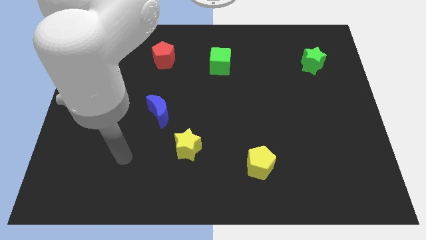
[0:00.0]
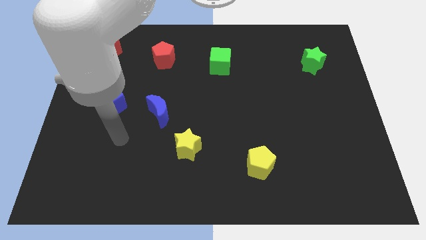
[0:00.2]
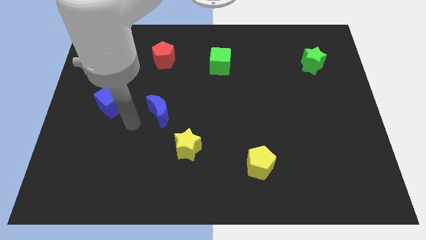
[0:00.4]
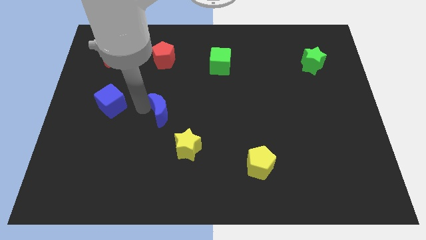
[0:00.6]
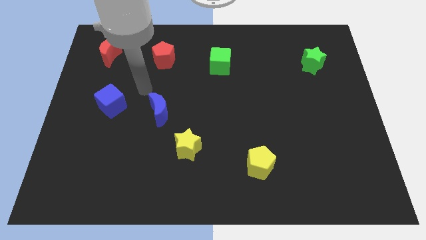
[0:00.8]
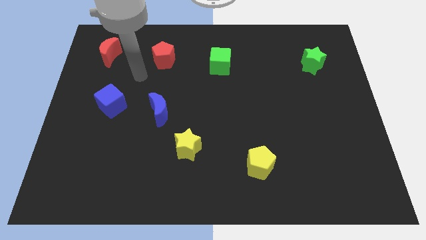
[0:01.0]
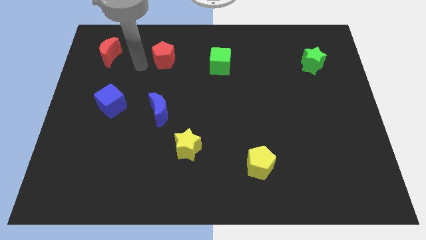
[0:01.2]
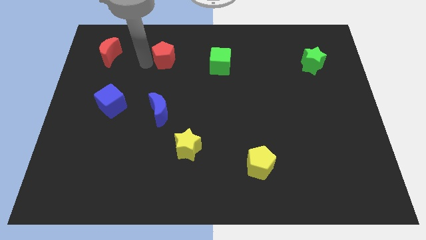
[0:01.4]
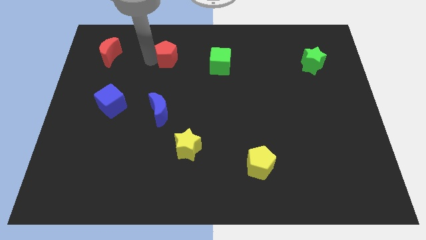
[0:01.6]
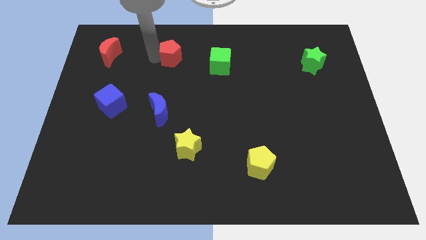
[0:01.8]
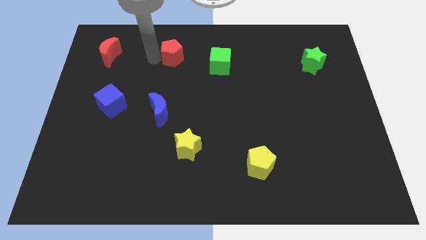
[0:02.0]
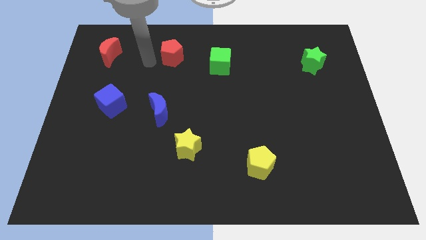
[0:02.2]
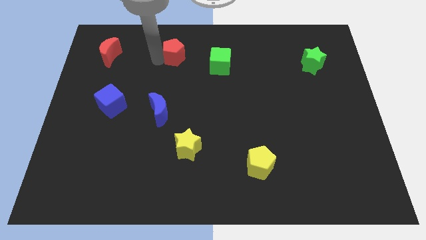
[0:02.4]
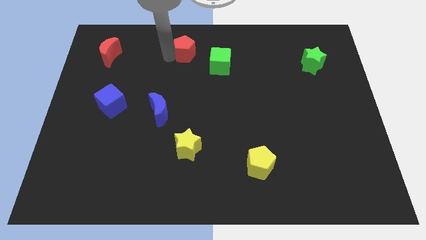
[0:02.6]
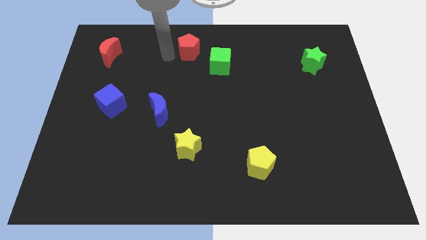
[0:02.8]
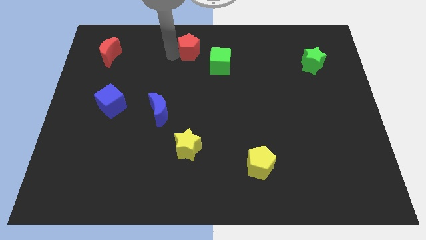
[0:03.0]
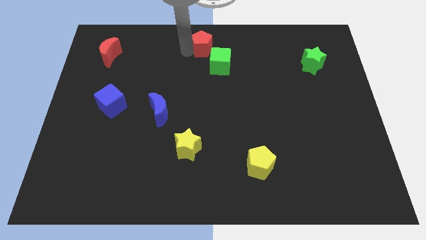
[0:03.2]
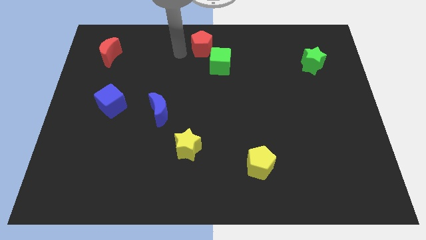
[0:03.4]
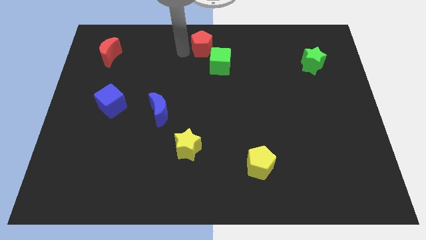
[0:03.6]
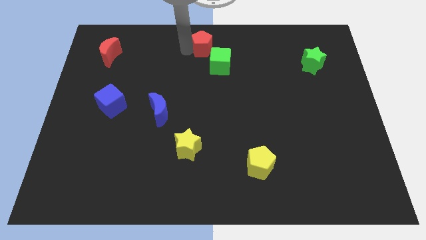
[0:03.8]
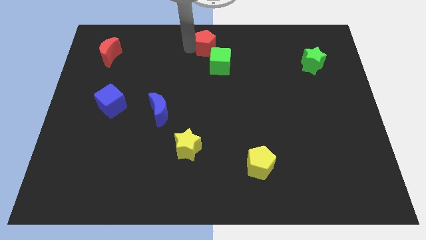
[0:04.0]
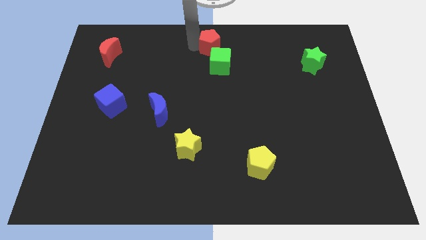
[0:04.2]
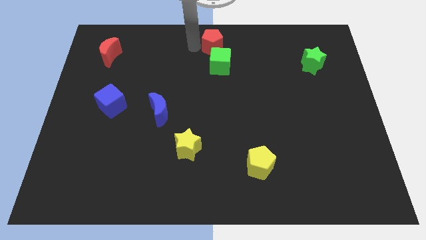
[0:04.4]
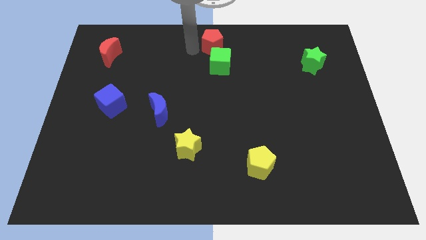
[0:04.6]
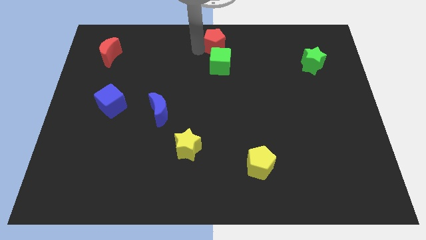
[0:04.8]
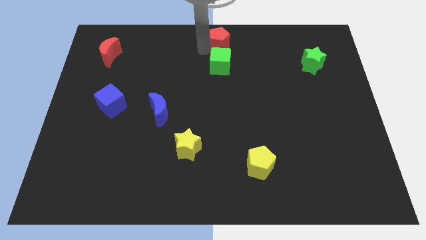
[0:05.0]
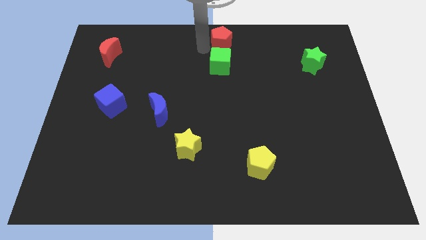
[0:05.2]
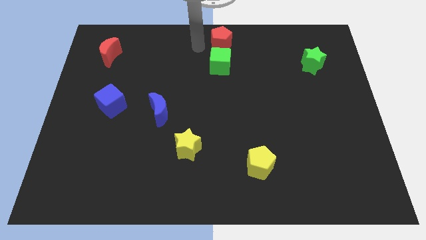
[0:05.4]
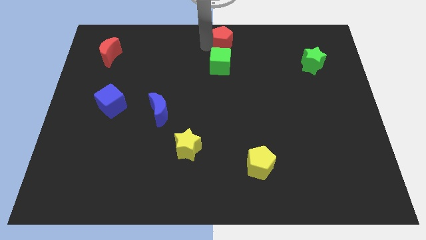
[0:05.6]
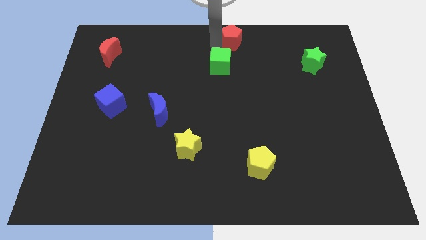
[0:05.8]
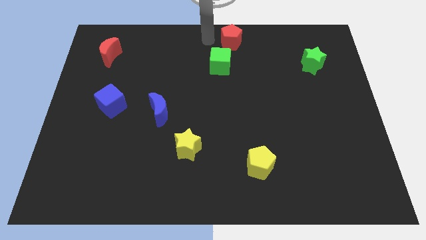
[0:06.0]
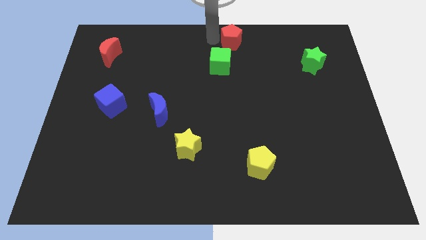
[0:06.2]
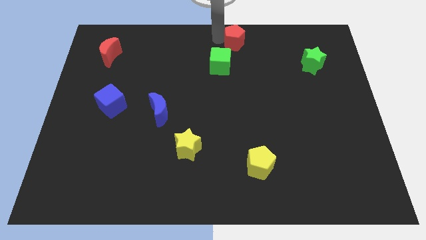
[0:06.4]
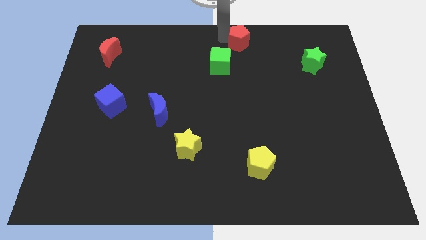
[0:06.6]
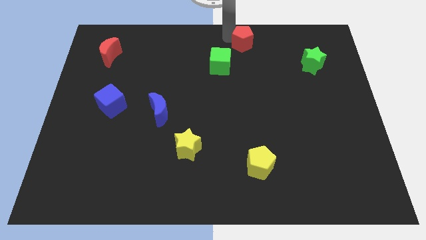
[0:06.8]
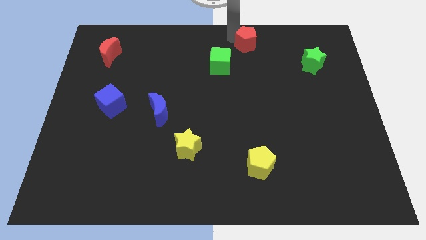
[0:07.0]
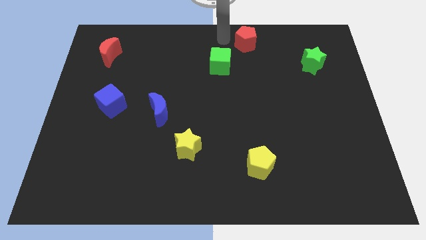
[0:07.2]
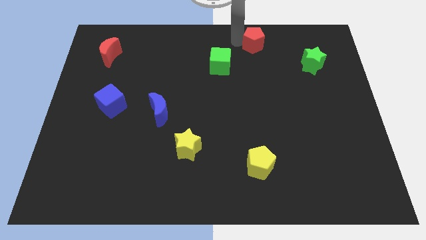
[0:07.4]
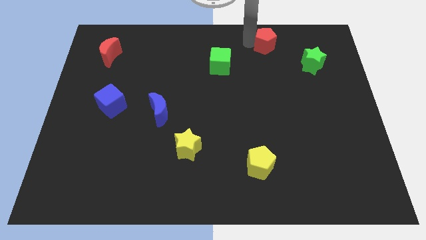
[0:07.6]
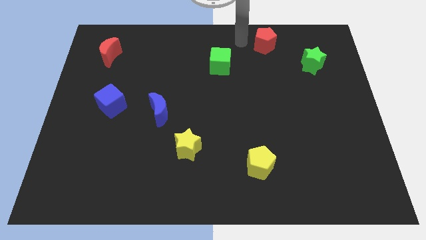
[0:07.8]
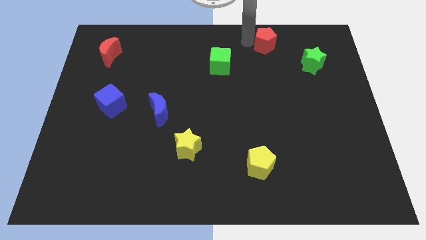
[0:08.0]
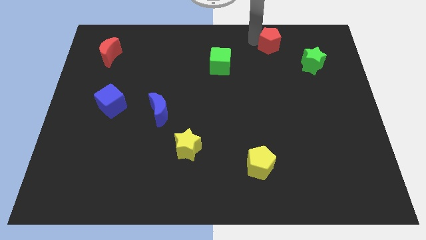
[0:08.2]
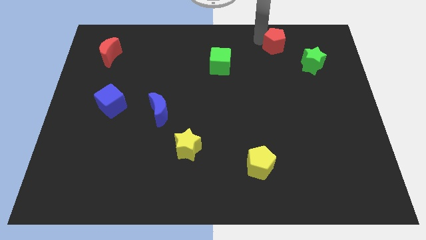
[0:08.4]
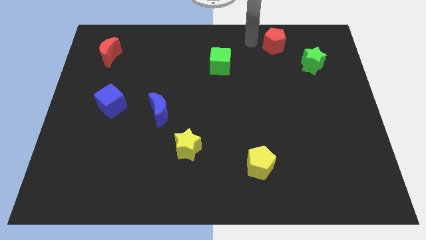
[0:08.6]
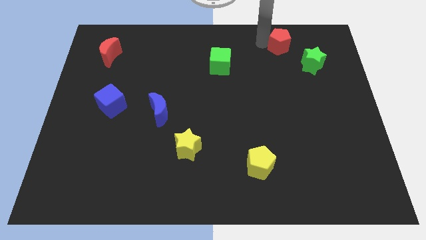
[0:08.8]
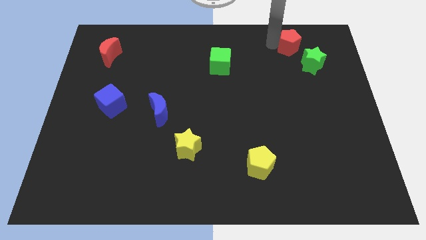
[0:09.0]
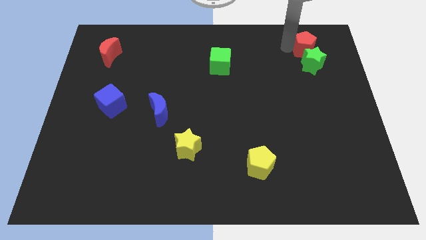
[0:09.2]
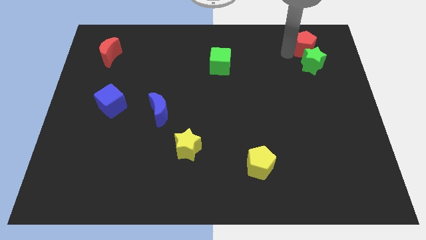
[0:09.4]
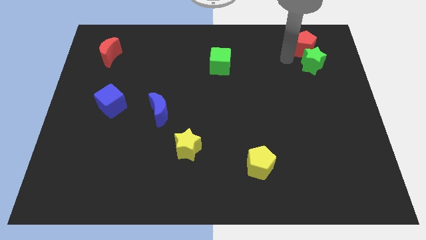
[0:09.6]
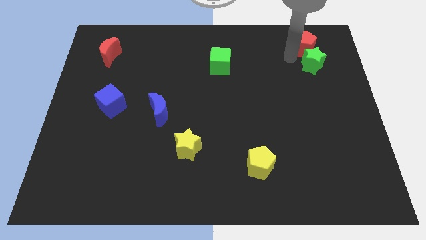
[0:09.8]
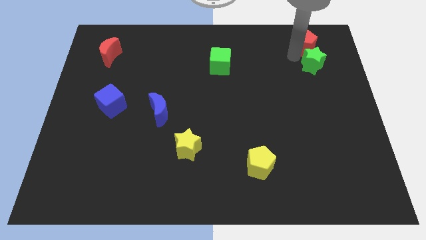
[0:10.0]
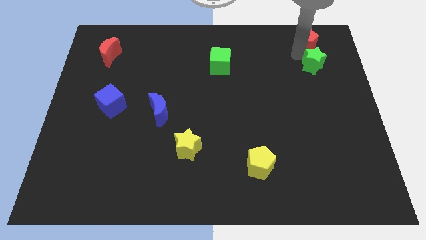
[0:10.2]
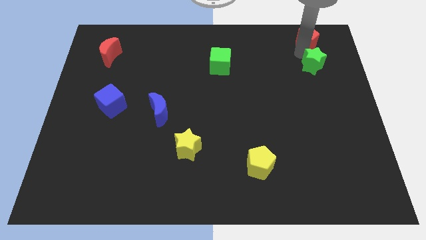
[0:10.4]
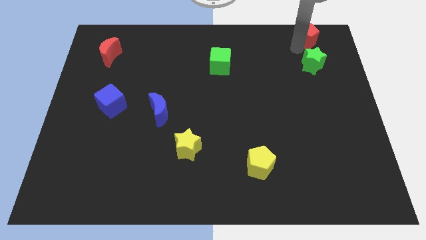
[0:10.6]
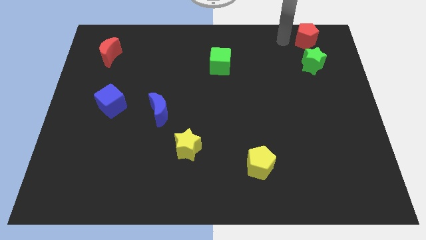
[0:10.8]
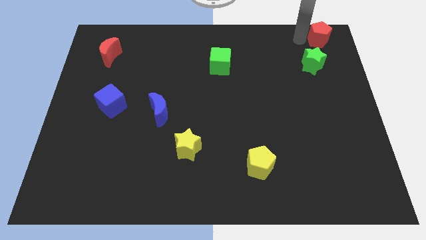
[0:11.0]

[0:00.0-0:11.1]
push the red pentagon to the top right of the board

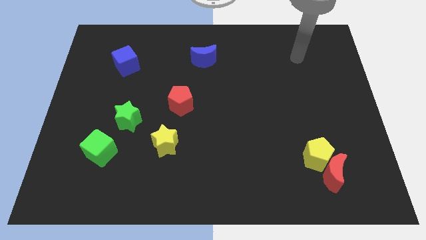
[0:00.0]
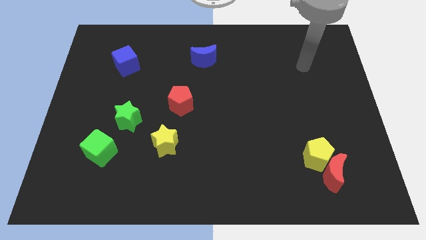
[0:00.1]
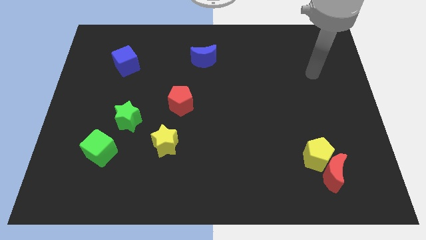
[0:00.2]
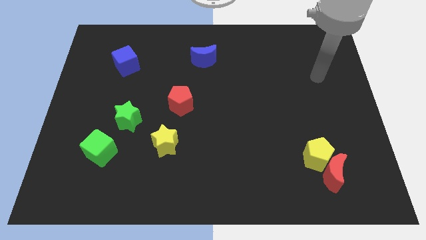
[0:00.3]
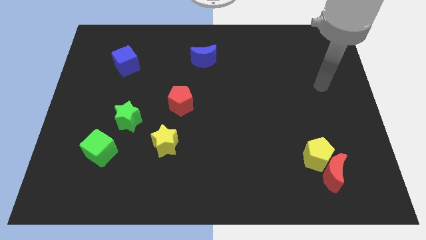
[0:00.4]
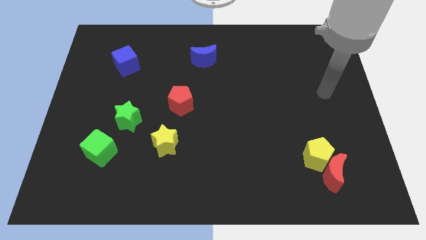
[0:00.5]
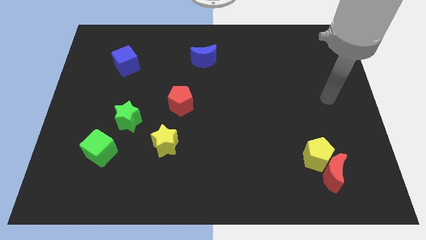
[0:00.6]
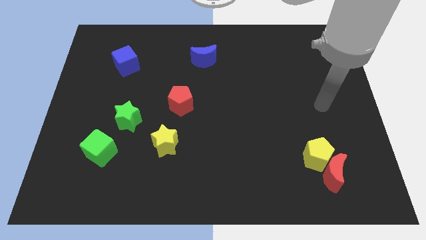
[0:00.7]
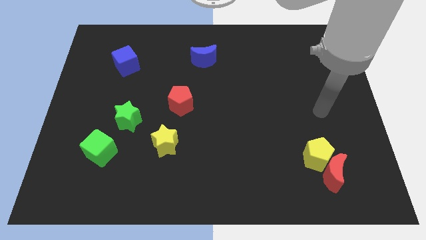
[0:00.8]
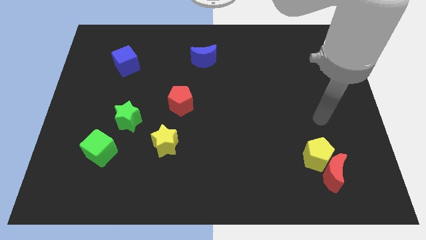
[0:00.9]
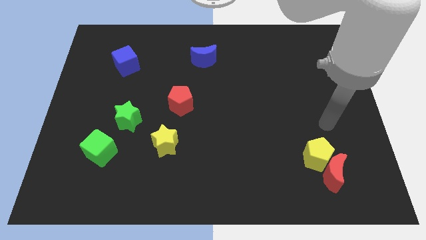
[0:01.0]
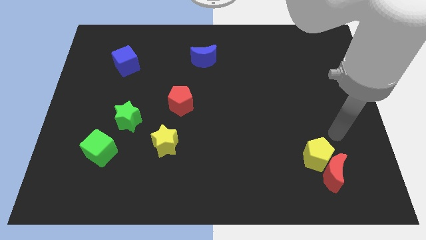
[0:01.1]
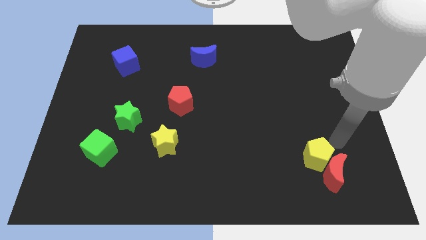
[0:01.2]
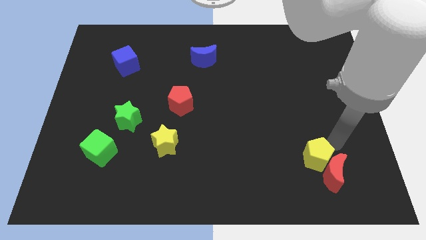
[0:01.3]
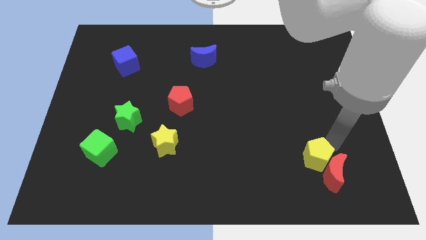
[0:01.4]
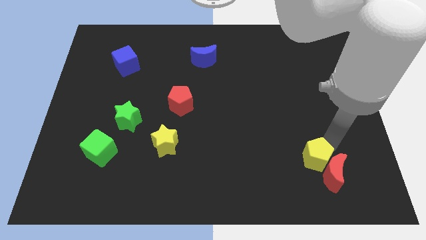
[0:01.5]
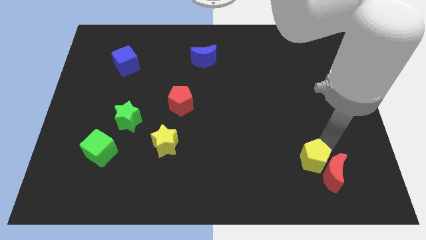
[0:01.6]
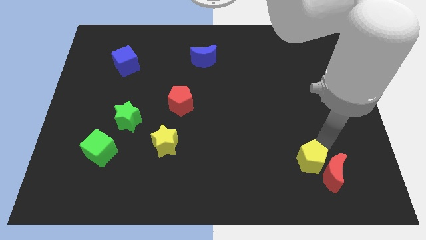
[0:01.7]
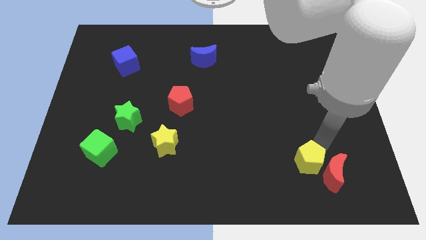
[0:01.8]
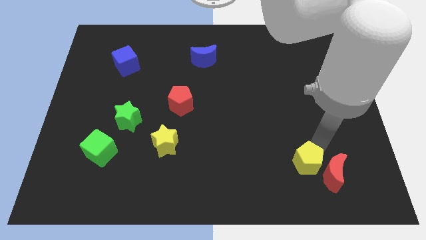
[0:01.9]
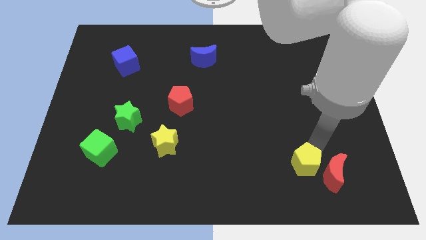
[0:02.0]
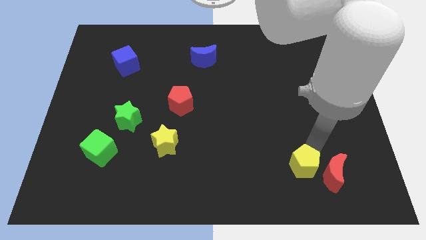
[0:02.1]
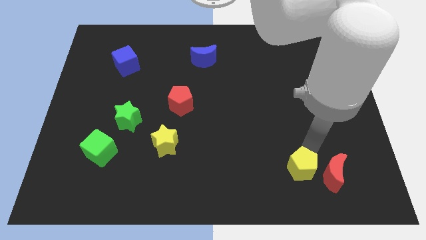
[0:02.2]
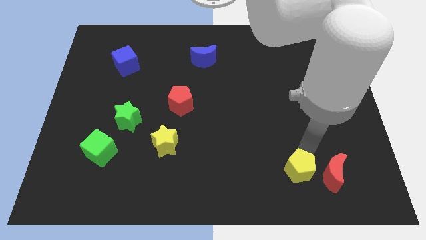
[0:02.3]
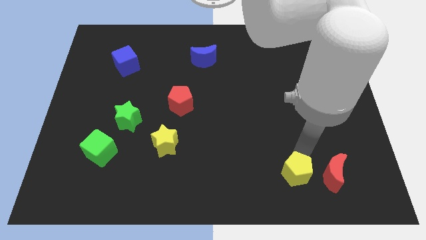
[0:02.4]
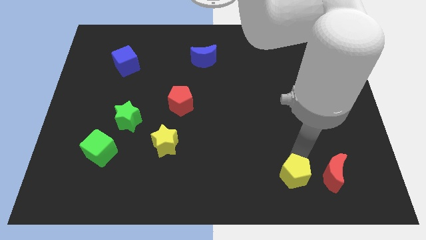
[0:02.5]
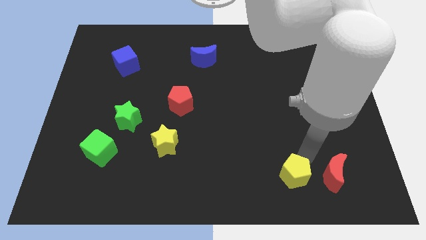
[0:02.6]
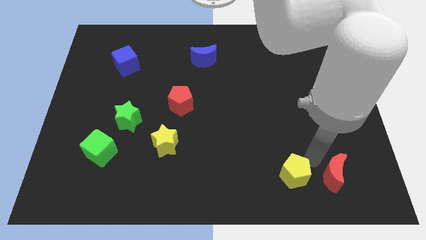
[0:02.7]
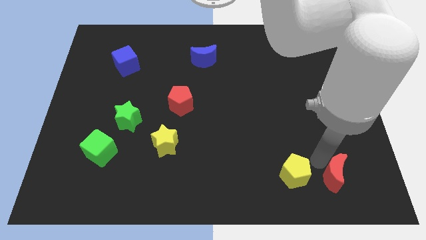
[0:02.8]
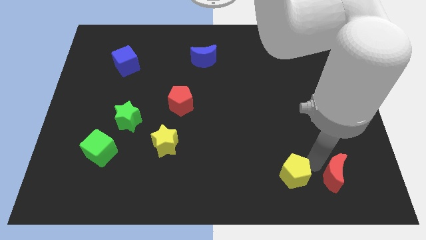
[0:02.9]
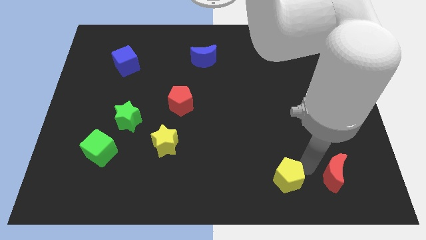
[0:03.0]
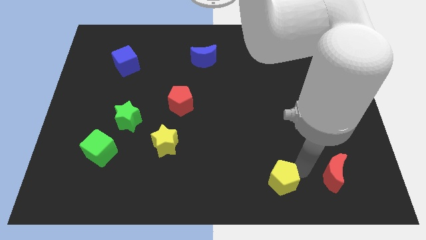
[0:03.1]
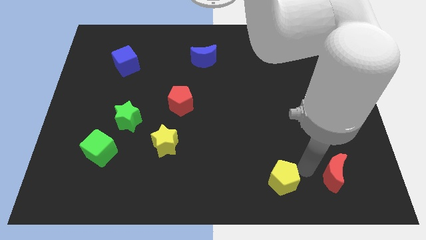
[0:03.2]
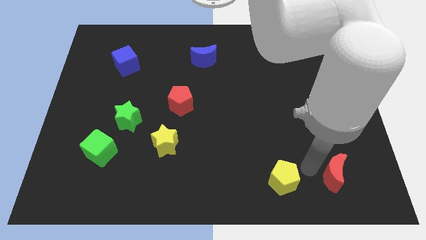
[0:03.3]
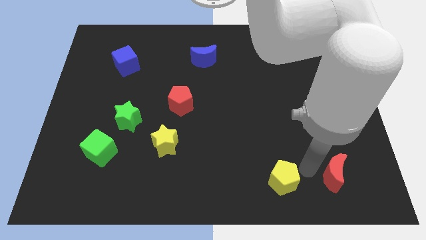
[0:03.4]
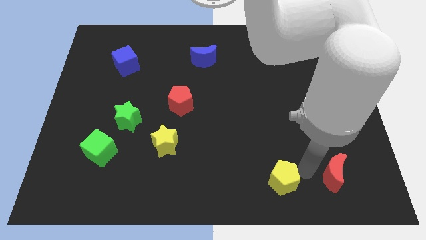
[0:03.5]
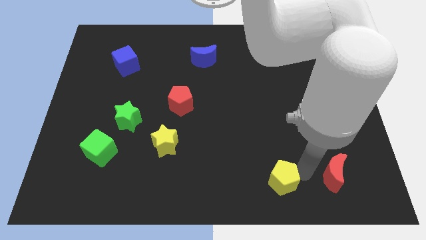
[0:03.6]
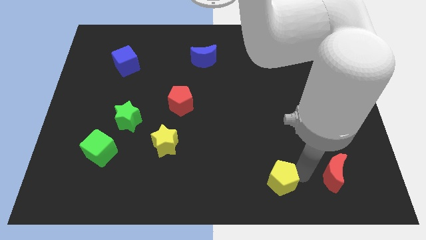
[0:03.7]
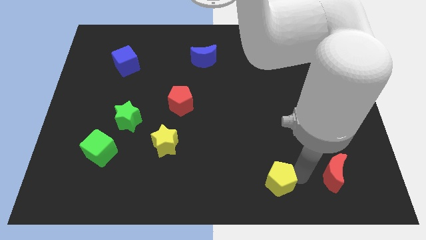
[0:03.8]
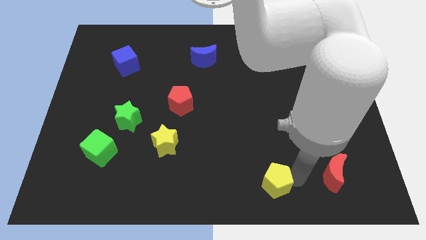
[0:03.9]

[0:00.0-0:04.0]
move the yellow pentagon to the bottom
